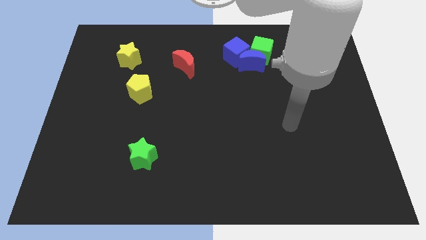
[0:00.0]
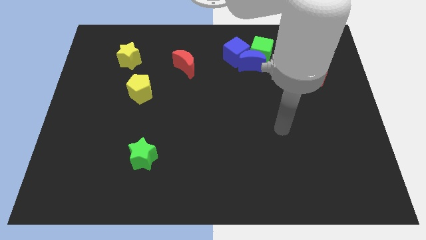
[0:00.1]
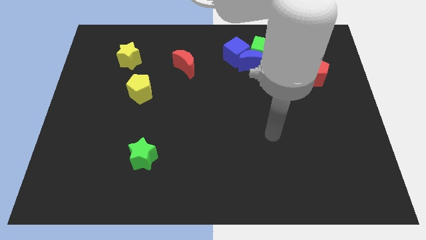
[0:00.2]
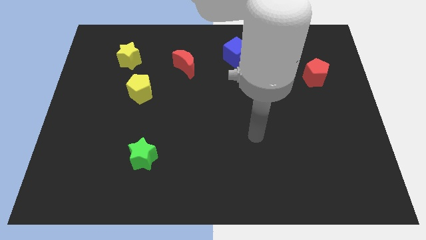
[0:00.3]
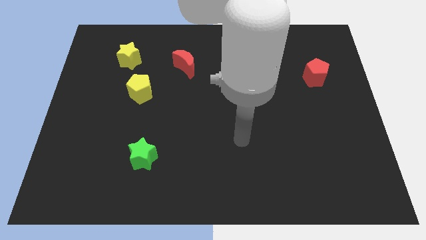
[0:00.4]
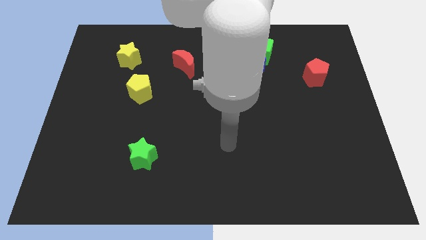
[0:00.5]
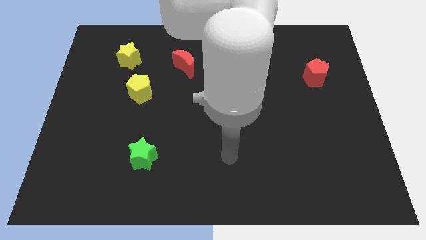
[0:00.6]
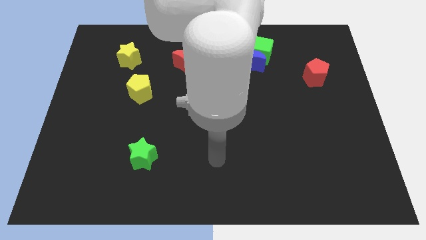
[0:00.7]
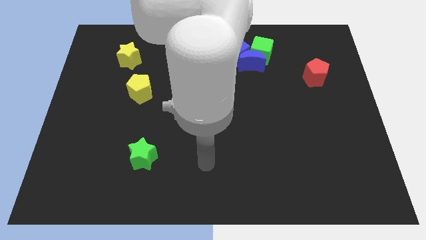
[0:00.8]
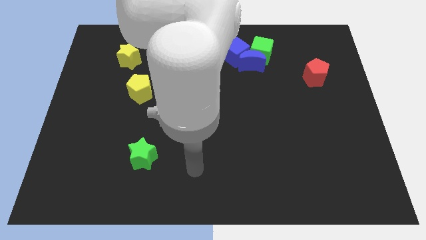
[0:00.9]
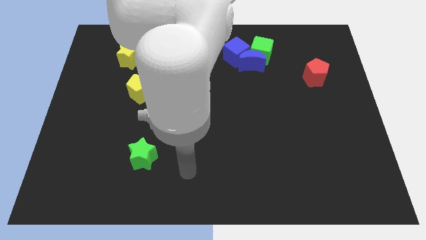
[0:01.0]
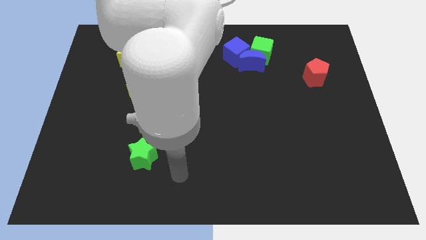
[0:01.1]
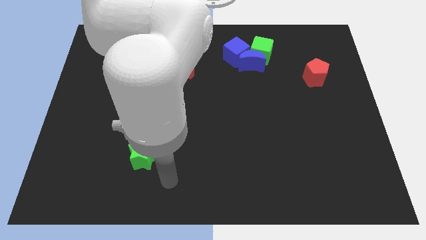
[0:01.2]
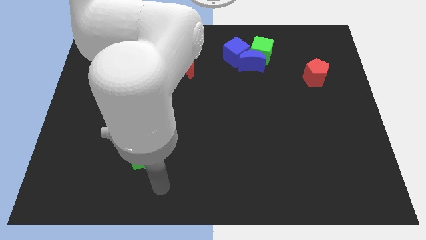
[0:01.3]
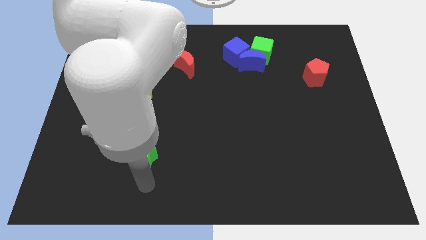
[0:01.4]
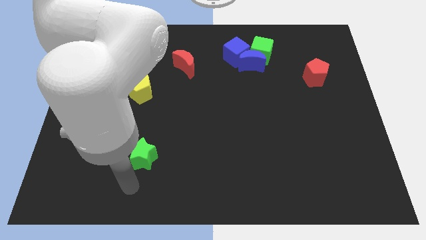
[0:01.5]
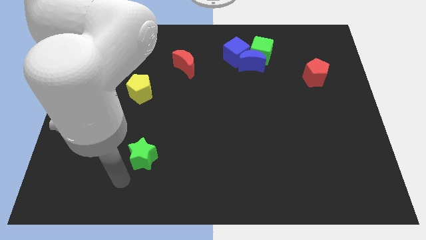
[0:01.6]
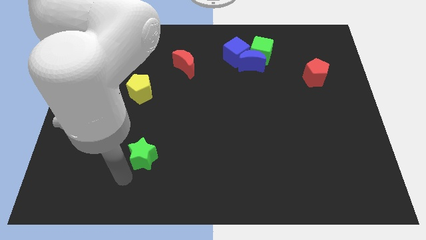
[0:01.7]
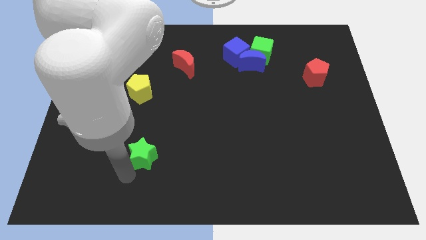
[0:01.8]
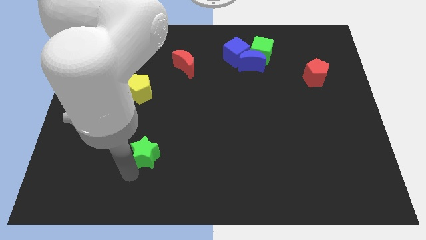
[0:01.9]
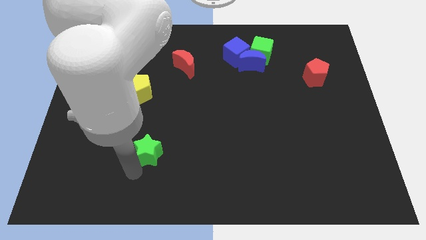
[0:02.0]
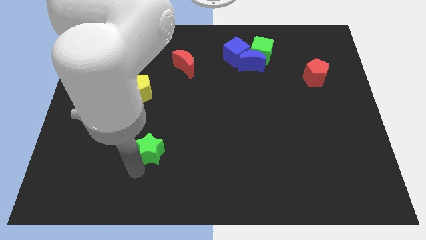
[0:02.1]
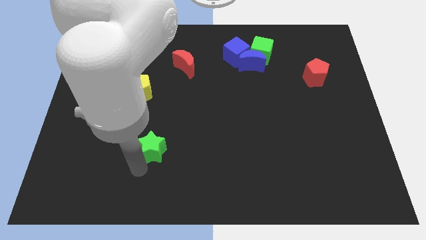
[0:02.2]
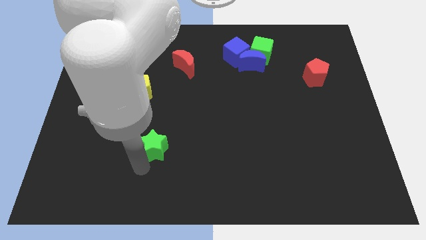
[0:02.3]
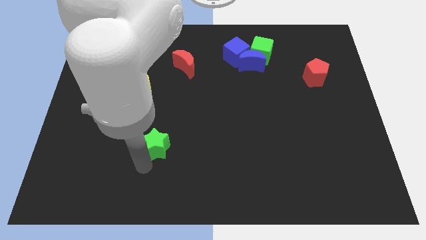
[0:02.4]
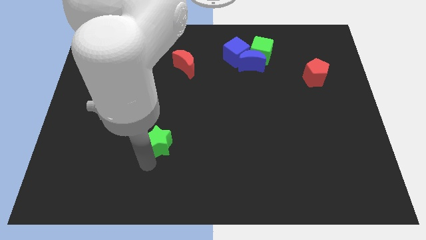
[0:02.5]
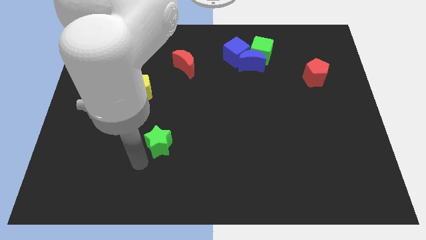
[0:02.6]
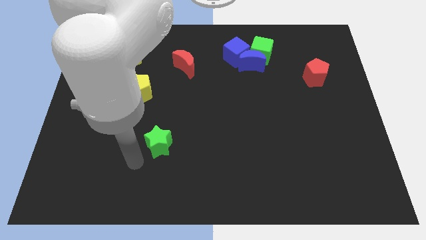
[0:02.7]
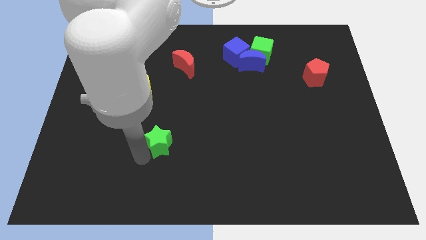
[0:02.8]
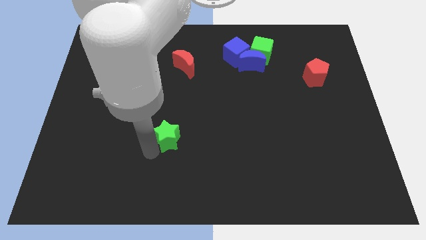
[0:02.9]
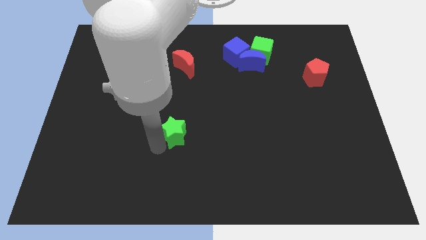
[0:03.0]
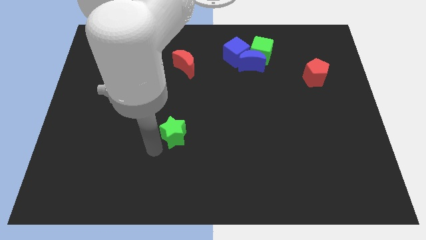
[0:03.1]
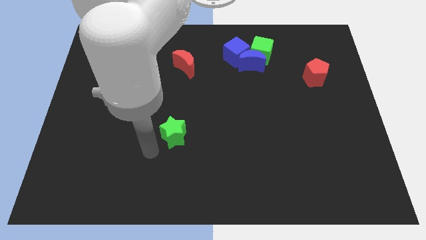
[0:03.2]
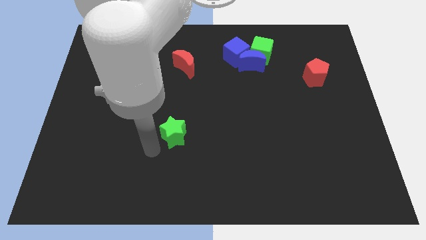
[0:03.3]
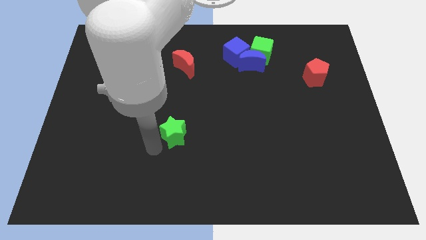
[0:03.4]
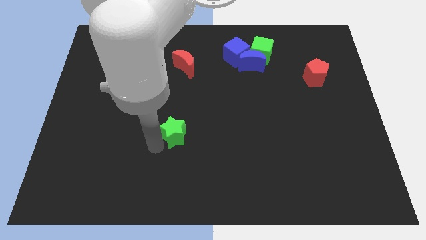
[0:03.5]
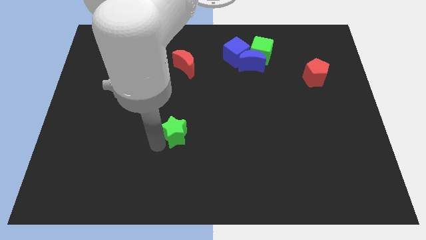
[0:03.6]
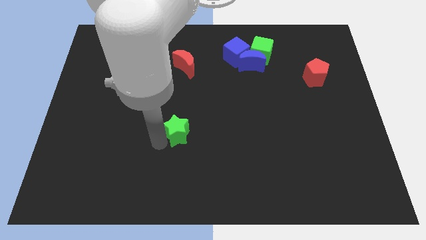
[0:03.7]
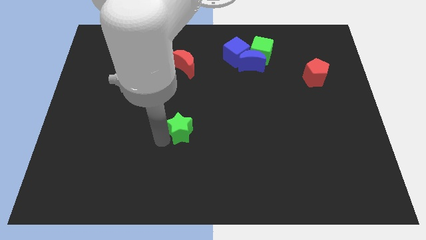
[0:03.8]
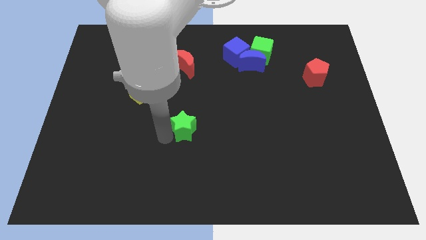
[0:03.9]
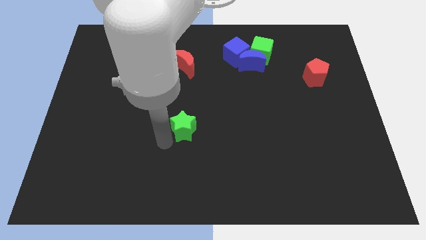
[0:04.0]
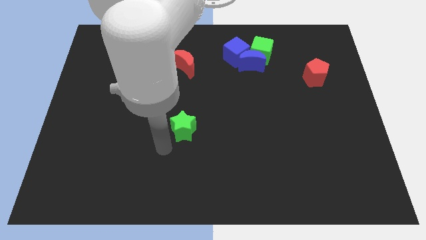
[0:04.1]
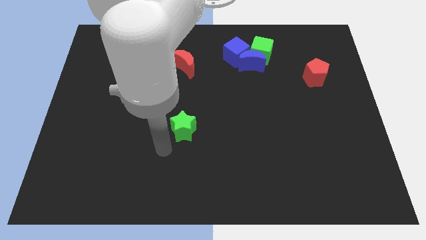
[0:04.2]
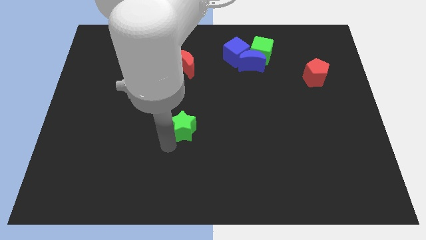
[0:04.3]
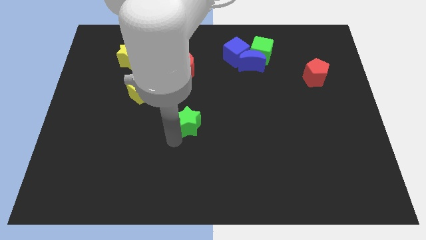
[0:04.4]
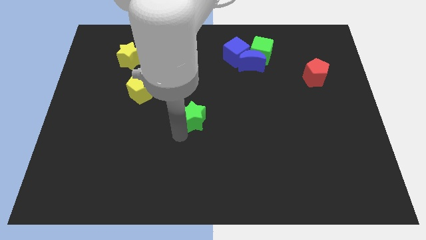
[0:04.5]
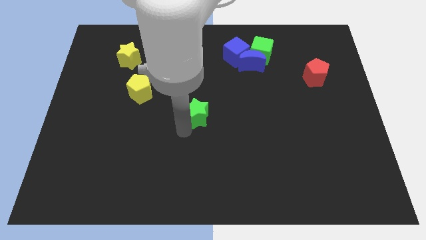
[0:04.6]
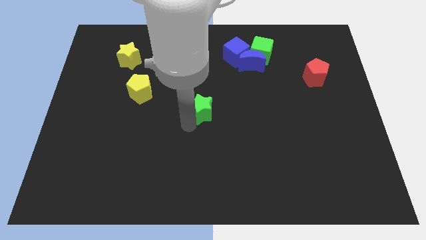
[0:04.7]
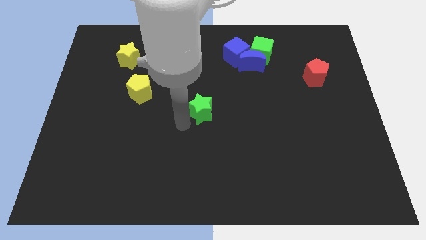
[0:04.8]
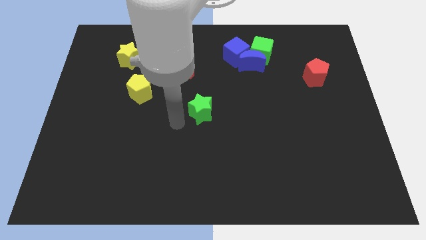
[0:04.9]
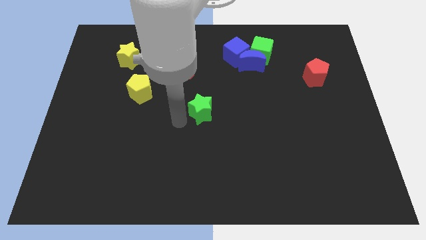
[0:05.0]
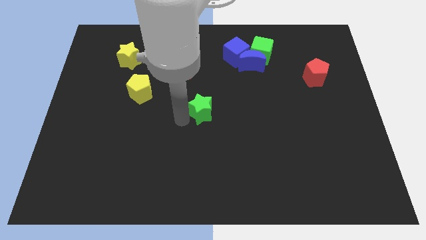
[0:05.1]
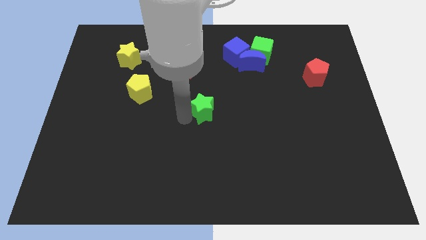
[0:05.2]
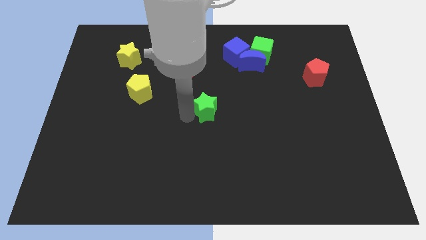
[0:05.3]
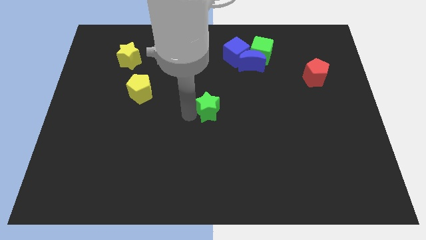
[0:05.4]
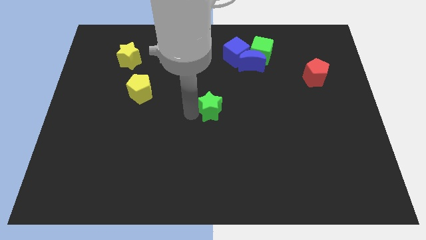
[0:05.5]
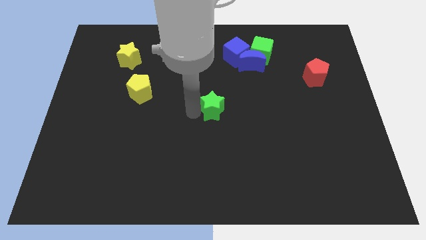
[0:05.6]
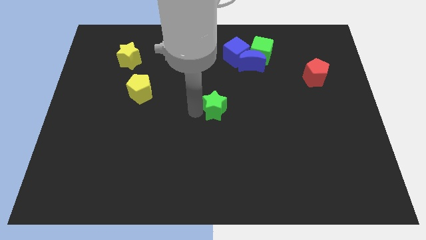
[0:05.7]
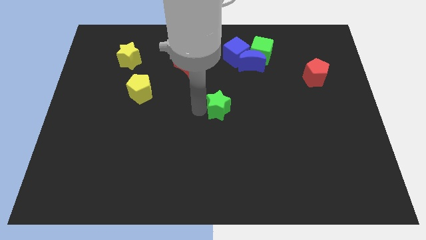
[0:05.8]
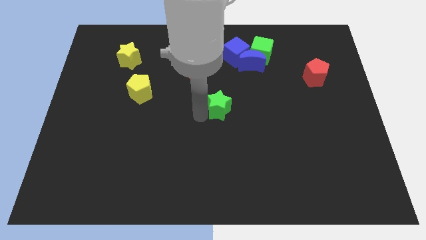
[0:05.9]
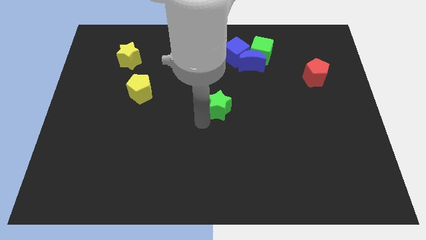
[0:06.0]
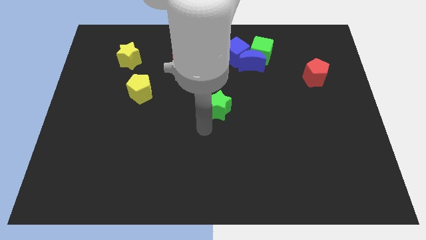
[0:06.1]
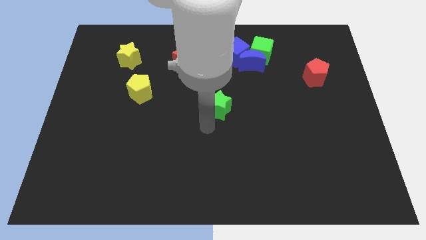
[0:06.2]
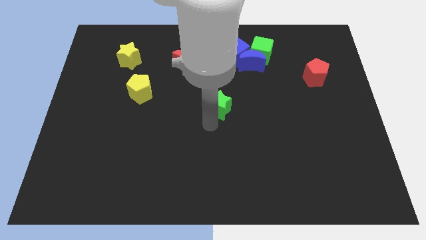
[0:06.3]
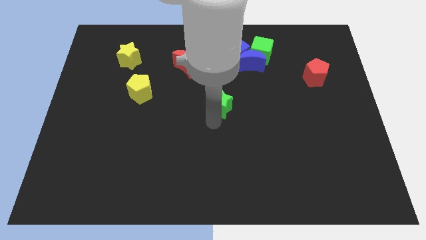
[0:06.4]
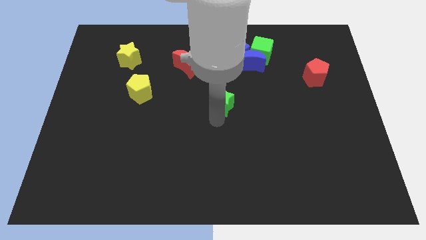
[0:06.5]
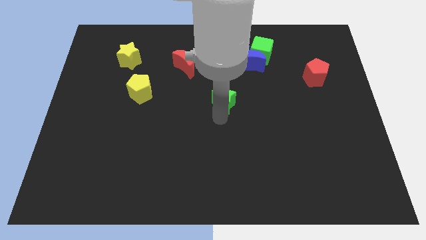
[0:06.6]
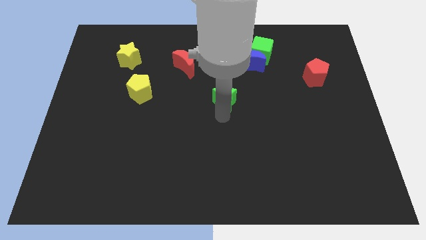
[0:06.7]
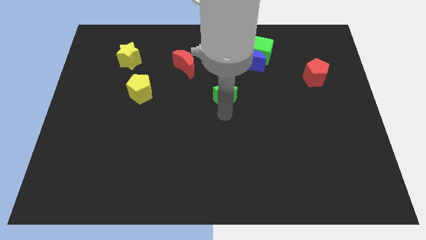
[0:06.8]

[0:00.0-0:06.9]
slide the green star below the blue cube

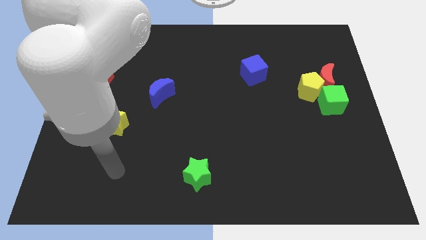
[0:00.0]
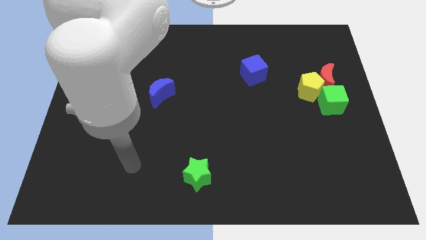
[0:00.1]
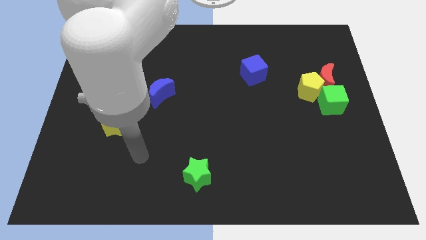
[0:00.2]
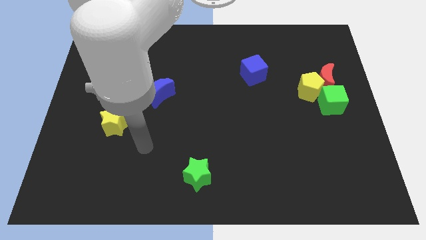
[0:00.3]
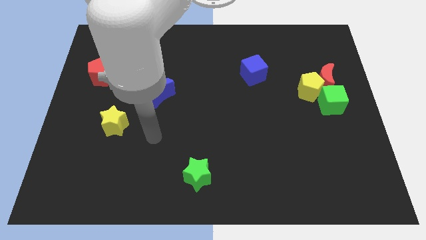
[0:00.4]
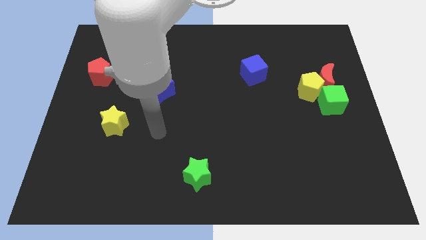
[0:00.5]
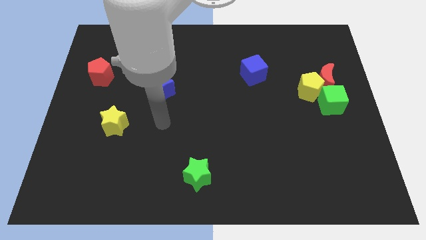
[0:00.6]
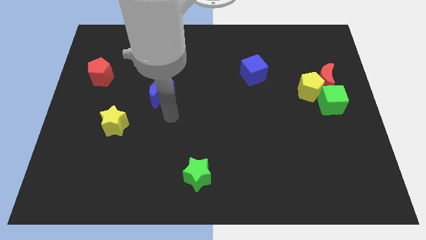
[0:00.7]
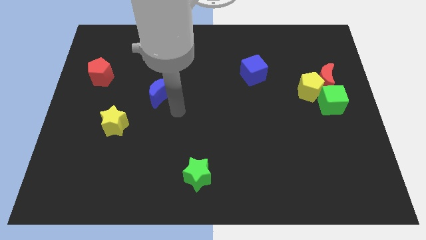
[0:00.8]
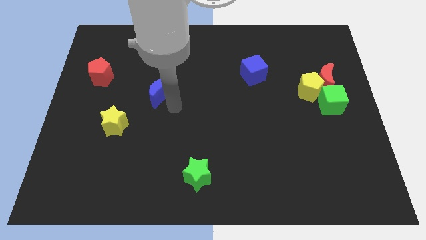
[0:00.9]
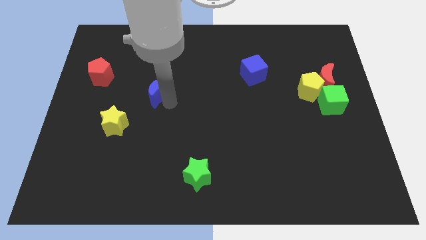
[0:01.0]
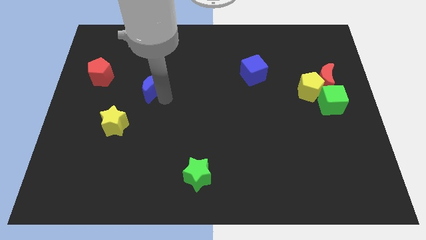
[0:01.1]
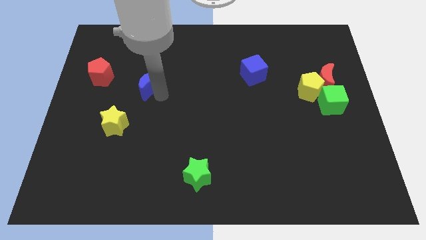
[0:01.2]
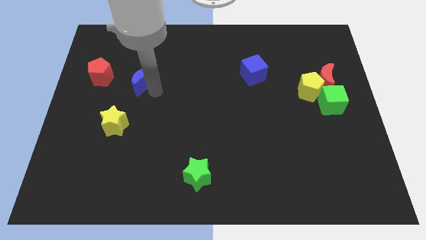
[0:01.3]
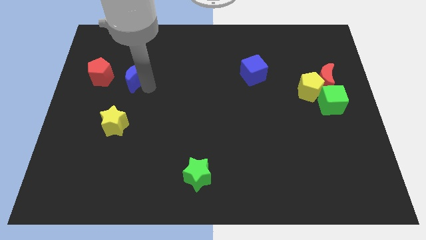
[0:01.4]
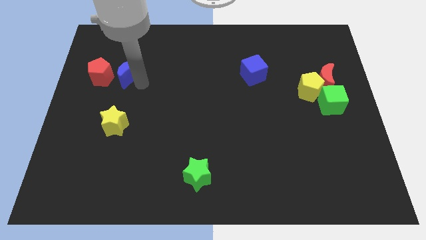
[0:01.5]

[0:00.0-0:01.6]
move the blue moon to the top right side of the red pentagon
